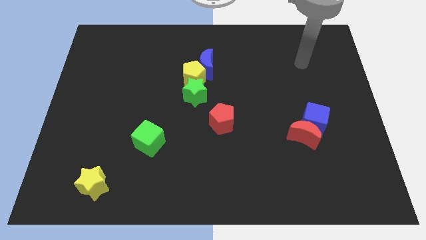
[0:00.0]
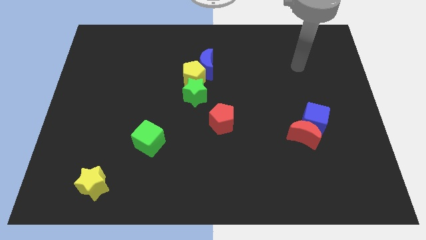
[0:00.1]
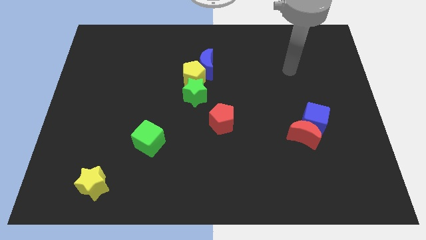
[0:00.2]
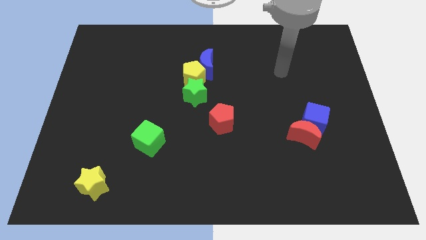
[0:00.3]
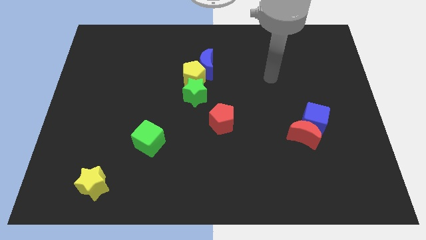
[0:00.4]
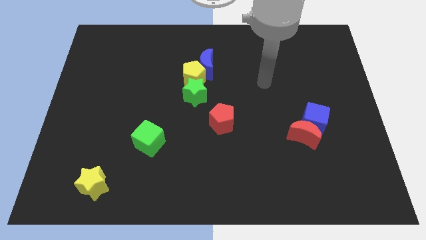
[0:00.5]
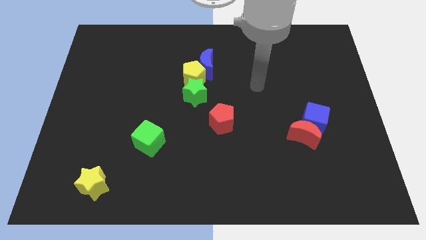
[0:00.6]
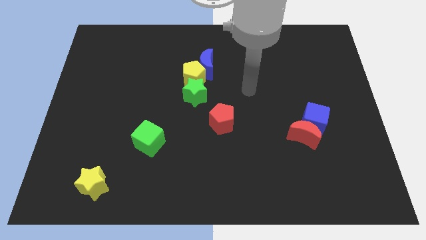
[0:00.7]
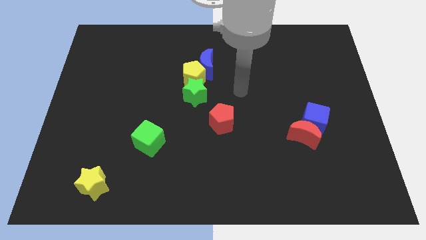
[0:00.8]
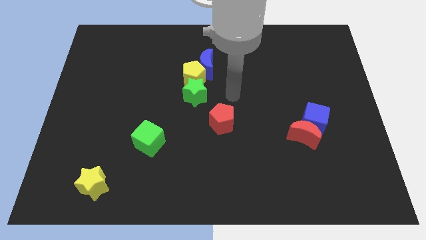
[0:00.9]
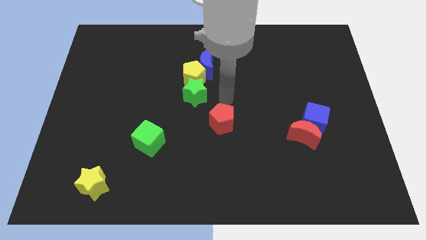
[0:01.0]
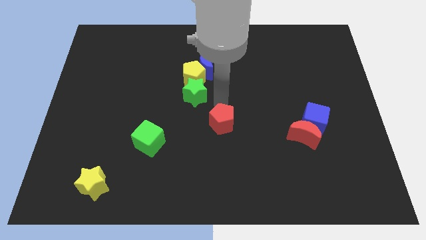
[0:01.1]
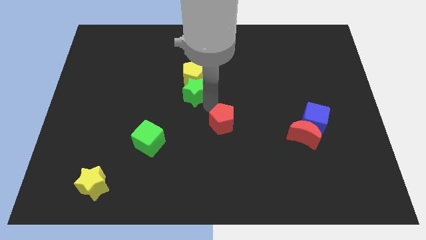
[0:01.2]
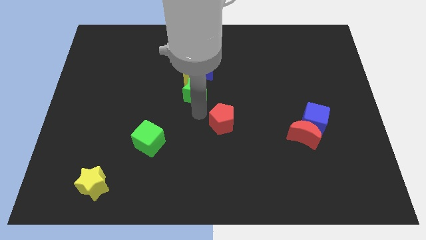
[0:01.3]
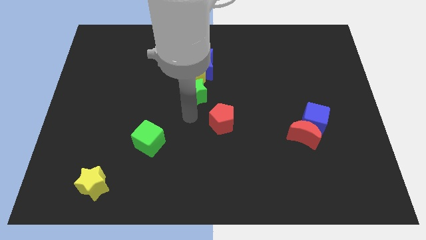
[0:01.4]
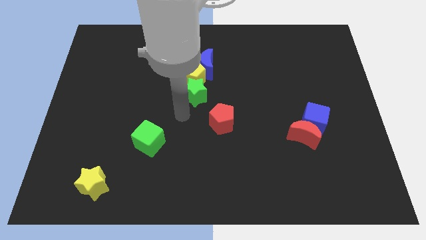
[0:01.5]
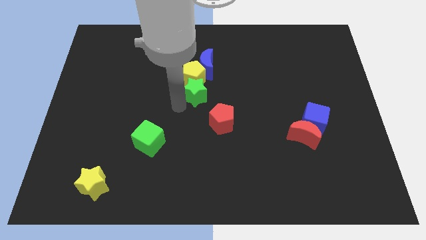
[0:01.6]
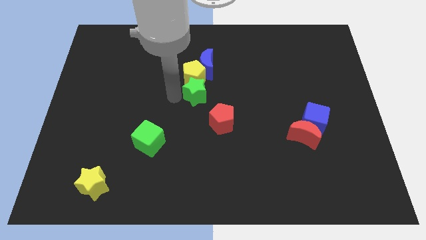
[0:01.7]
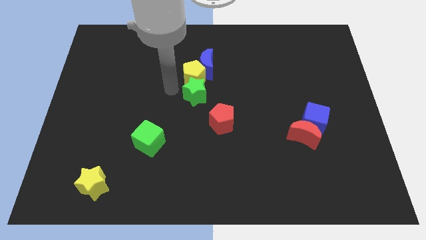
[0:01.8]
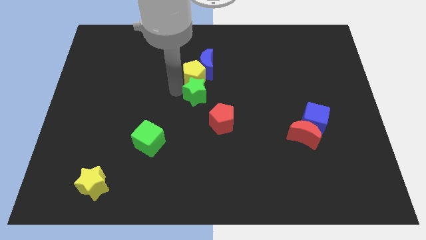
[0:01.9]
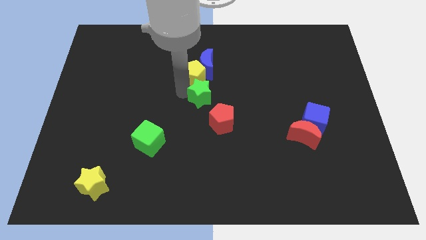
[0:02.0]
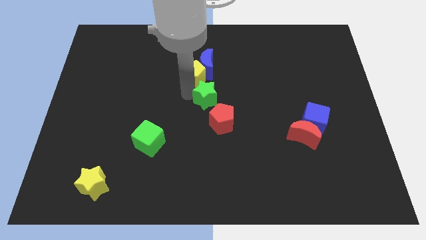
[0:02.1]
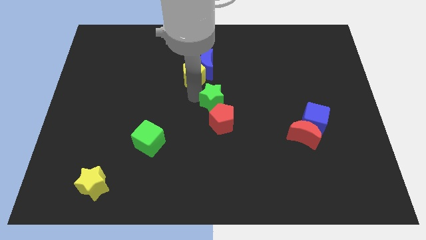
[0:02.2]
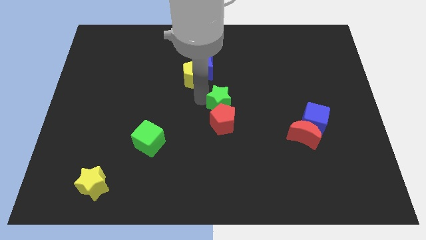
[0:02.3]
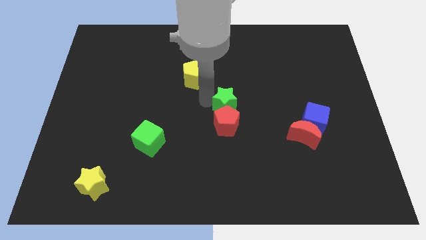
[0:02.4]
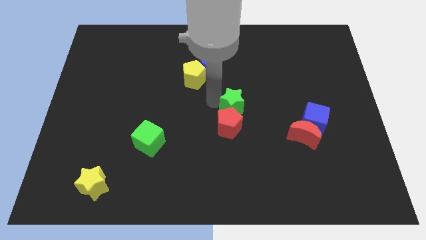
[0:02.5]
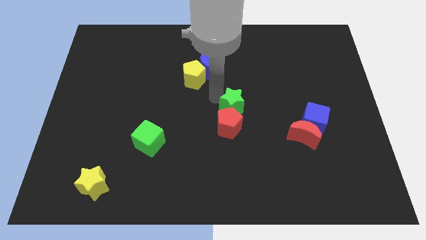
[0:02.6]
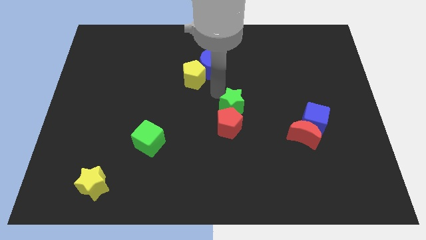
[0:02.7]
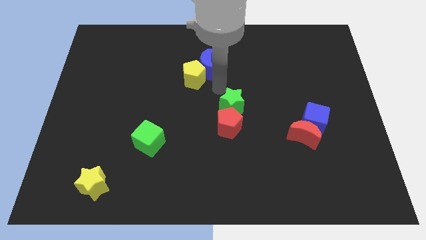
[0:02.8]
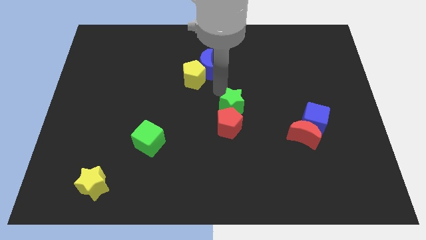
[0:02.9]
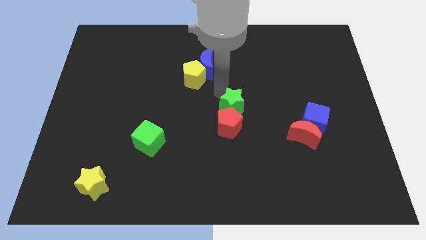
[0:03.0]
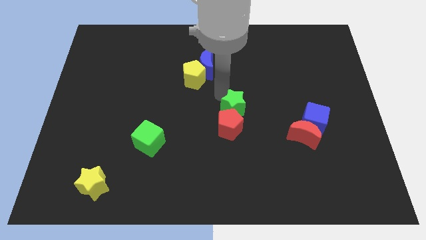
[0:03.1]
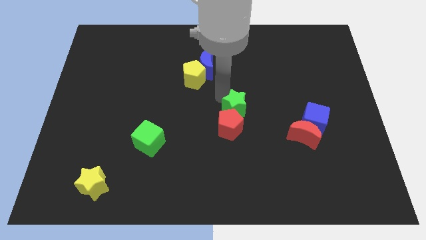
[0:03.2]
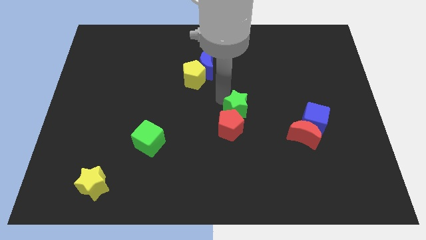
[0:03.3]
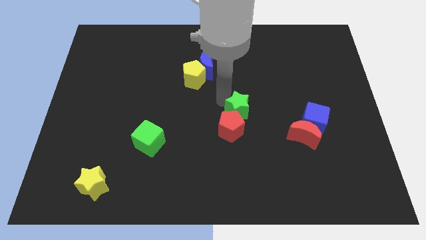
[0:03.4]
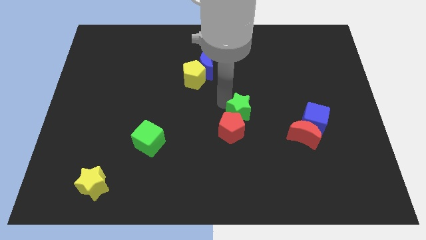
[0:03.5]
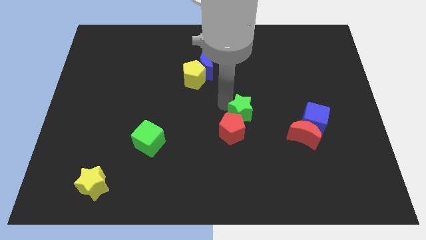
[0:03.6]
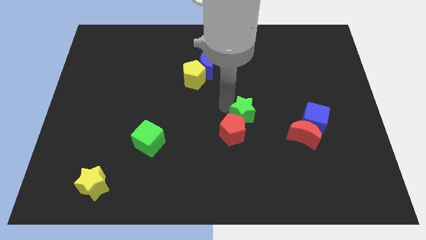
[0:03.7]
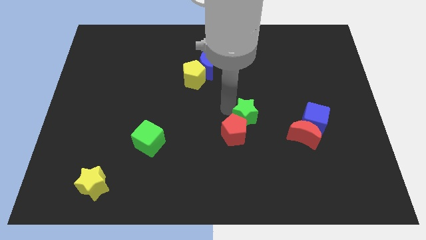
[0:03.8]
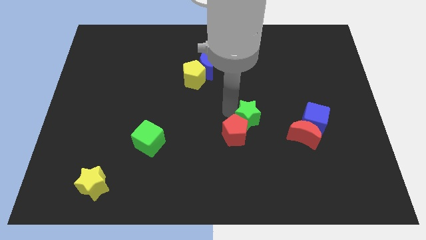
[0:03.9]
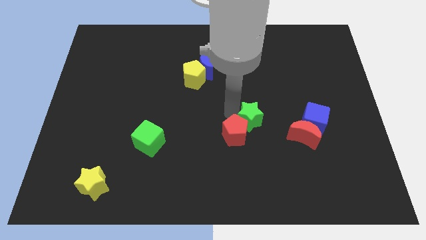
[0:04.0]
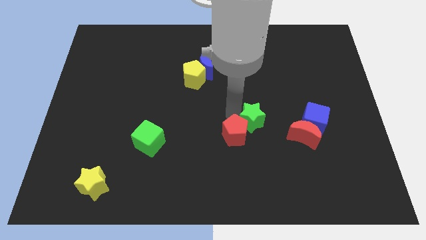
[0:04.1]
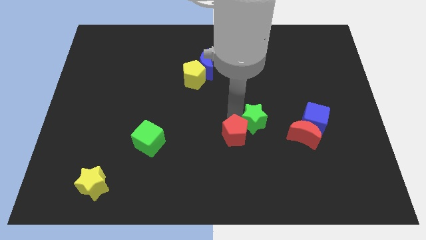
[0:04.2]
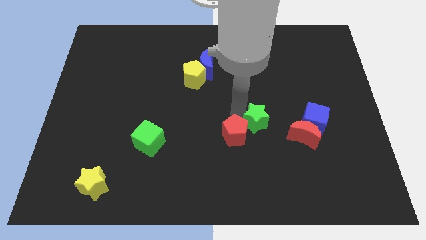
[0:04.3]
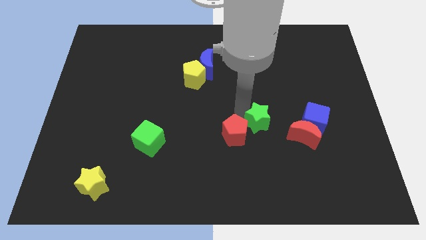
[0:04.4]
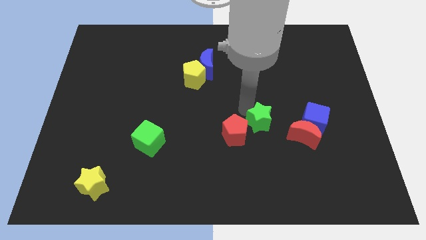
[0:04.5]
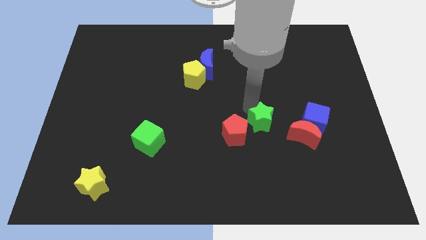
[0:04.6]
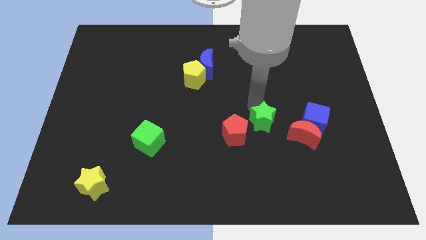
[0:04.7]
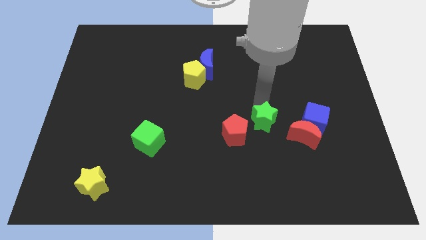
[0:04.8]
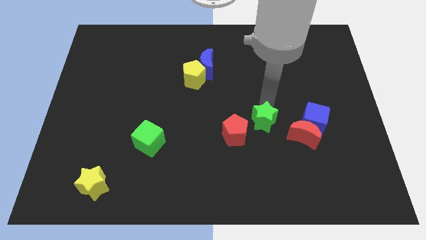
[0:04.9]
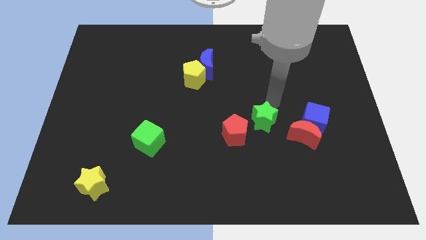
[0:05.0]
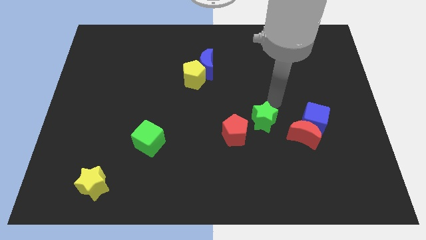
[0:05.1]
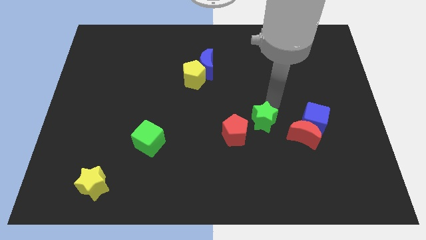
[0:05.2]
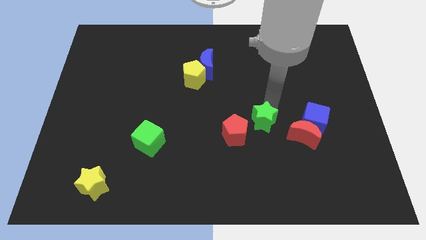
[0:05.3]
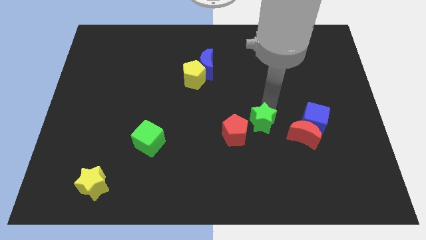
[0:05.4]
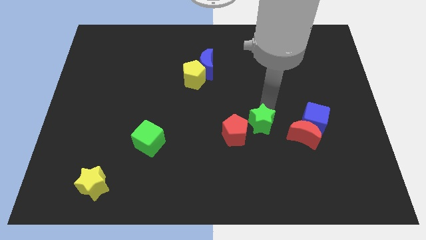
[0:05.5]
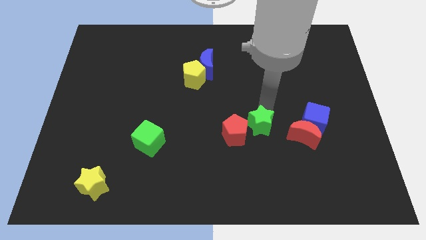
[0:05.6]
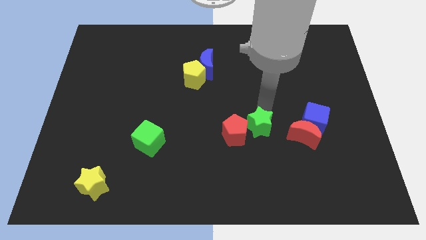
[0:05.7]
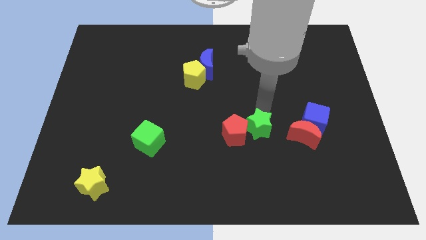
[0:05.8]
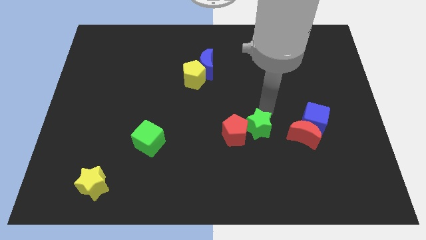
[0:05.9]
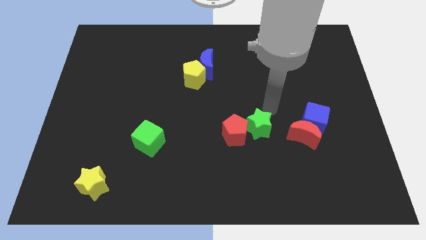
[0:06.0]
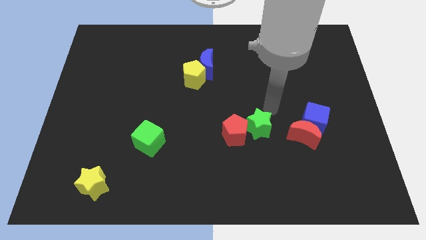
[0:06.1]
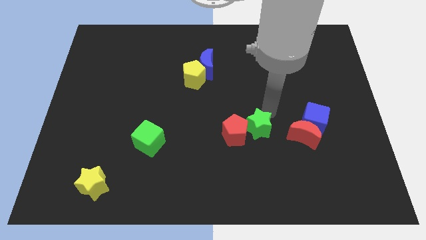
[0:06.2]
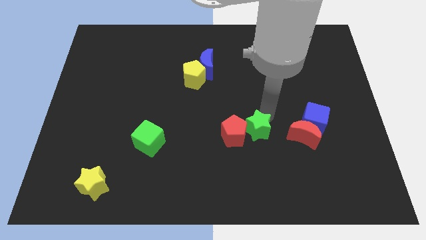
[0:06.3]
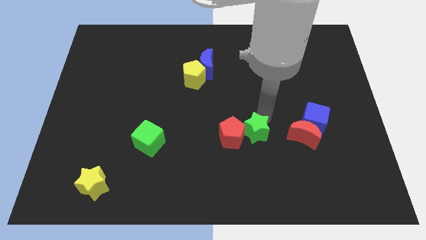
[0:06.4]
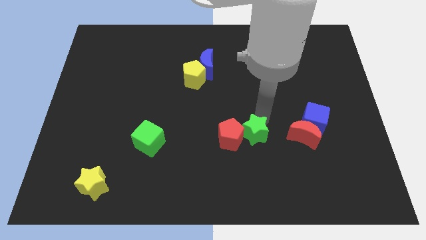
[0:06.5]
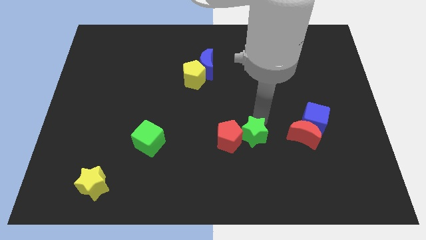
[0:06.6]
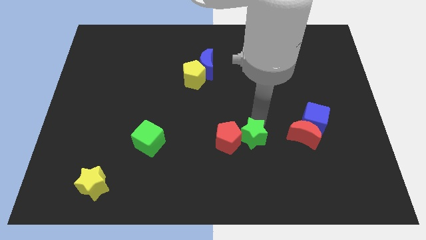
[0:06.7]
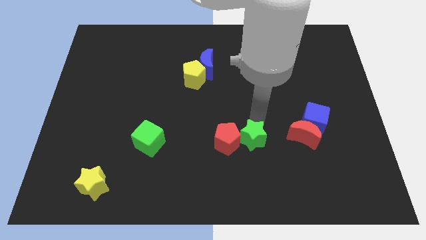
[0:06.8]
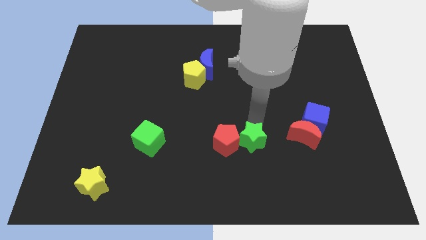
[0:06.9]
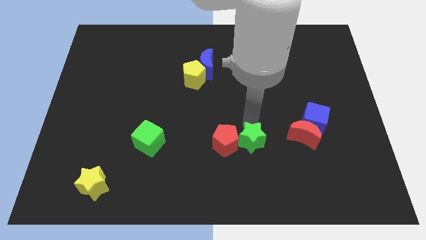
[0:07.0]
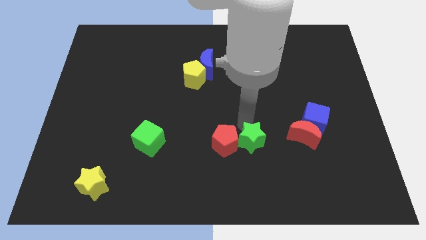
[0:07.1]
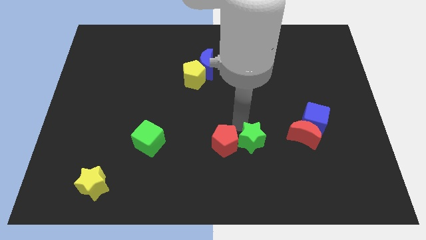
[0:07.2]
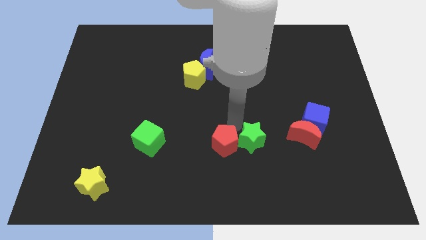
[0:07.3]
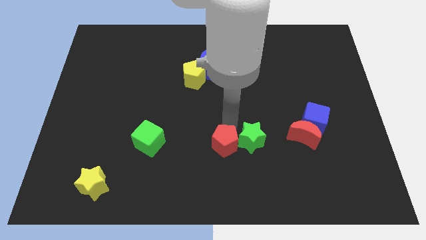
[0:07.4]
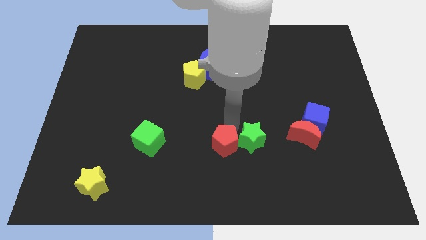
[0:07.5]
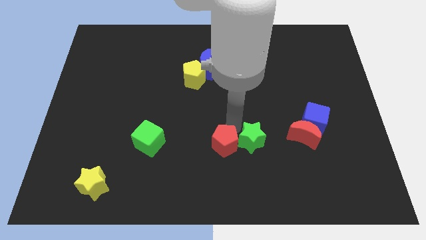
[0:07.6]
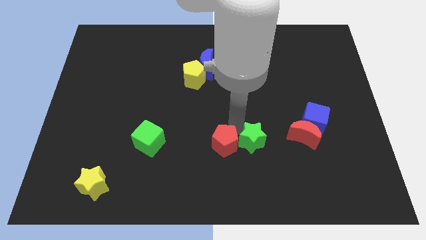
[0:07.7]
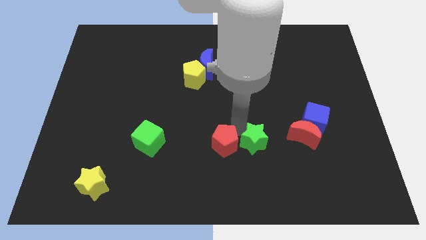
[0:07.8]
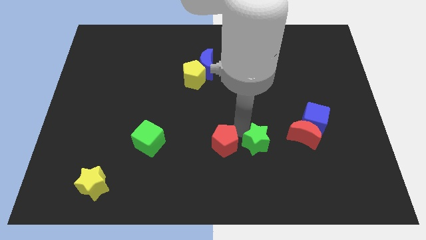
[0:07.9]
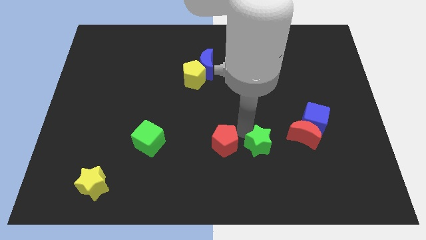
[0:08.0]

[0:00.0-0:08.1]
push the green star down and to the right diagonally

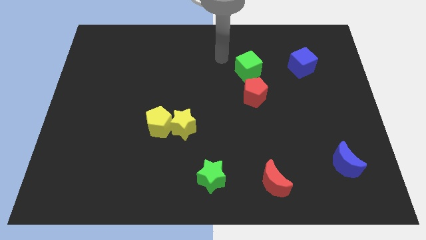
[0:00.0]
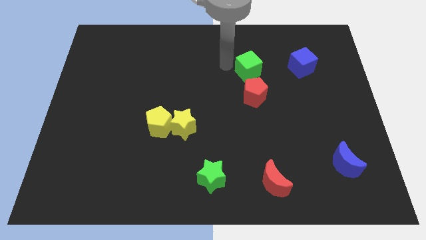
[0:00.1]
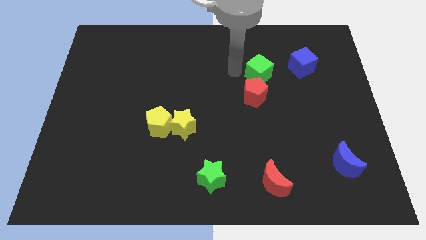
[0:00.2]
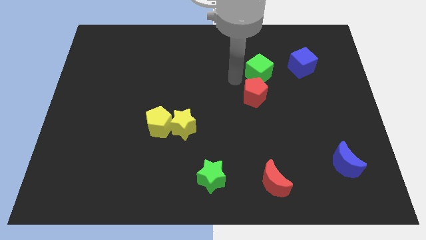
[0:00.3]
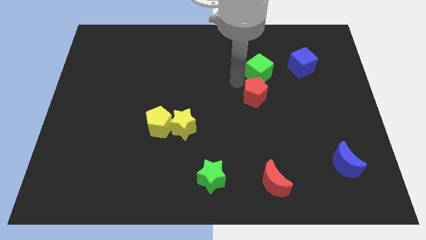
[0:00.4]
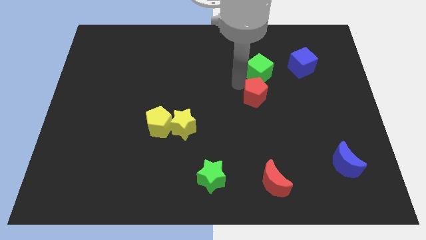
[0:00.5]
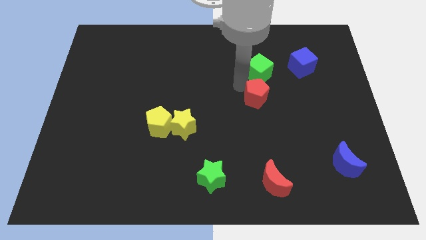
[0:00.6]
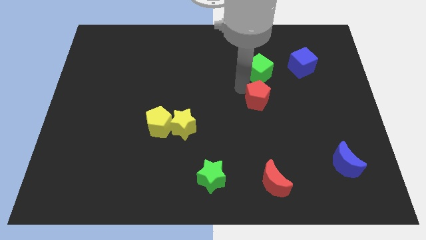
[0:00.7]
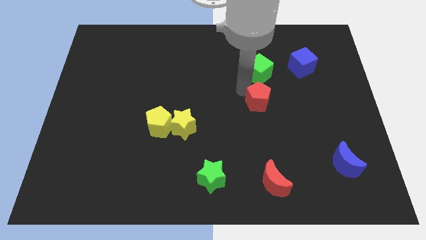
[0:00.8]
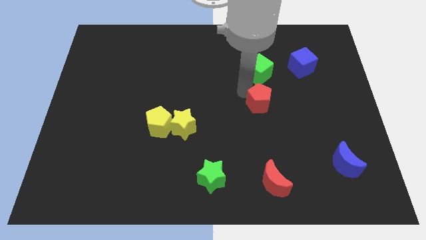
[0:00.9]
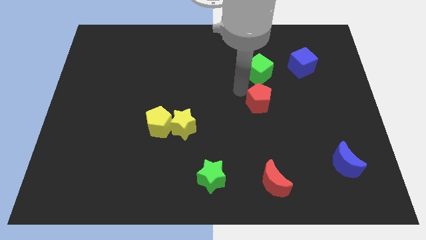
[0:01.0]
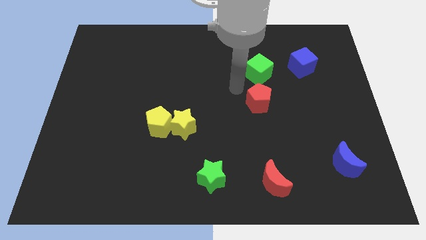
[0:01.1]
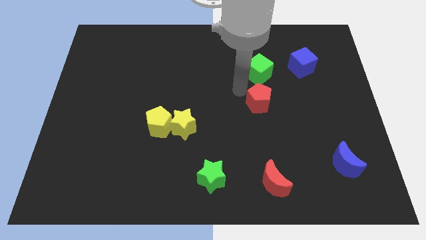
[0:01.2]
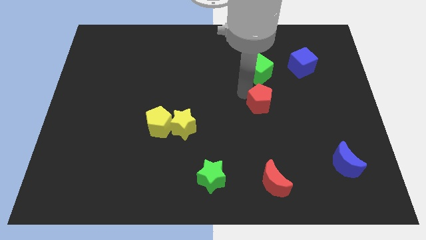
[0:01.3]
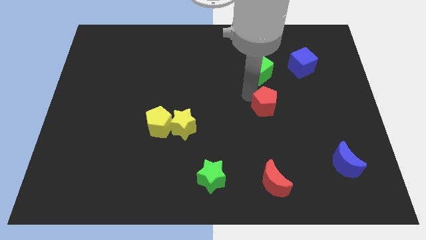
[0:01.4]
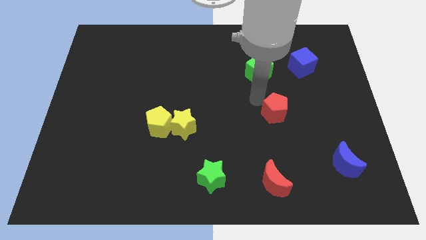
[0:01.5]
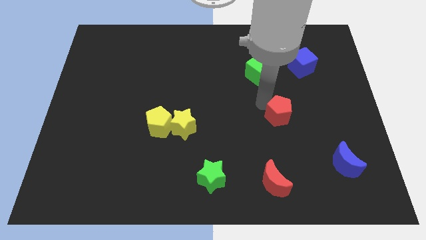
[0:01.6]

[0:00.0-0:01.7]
move the red pentagon a little bit down and right
